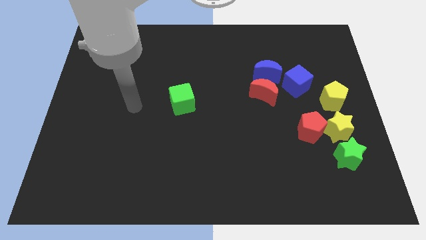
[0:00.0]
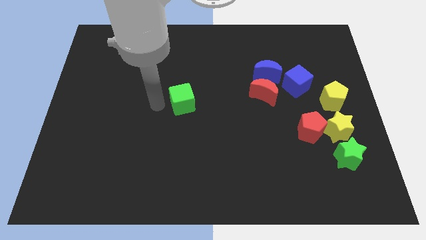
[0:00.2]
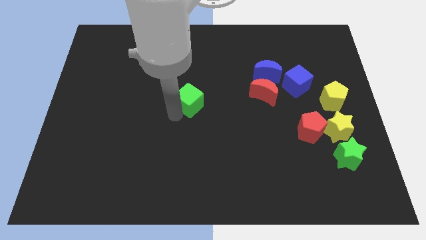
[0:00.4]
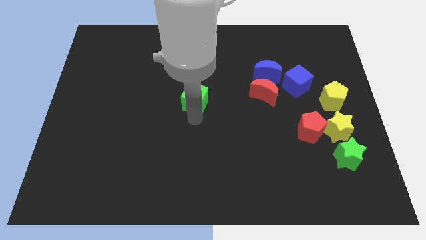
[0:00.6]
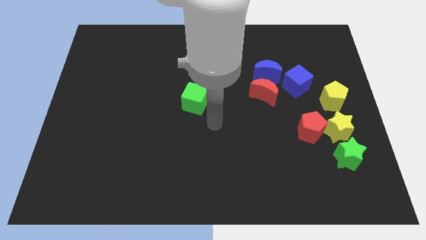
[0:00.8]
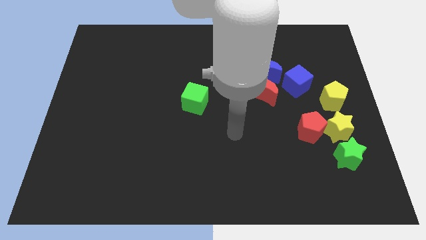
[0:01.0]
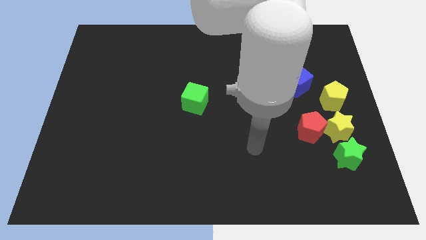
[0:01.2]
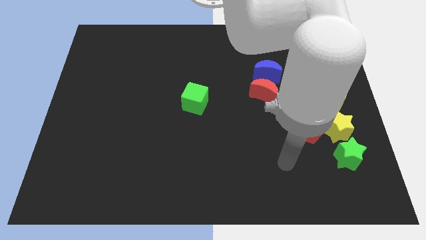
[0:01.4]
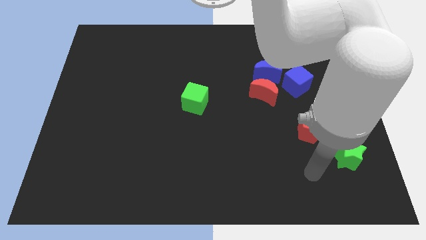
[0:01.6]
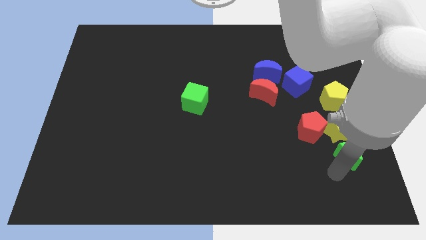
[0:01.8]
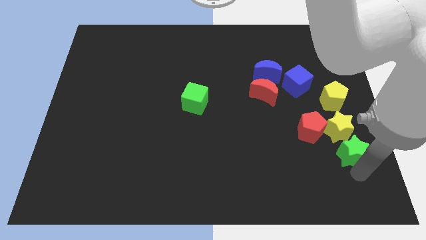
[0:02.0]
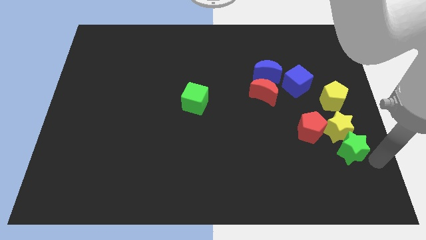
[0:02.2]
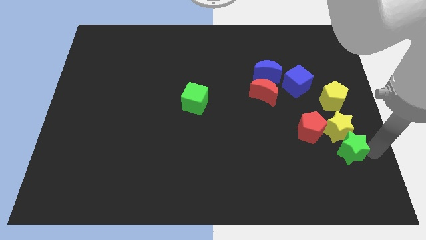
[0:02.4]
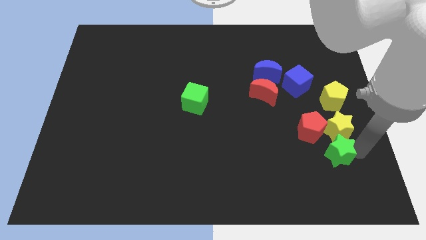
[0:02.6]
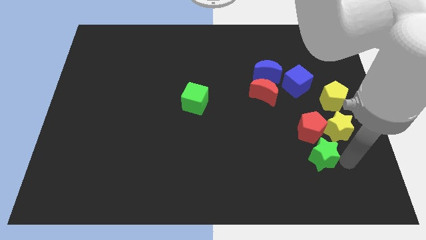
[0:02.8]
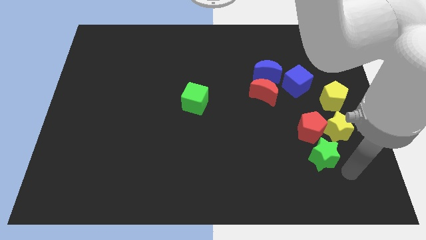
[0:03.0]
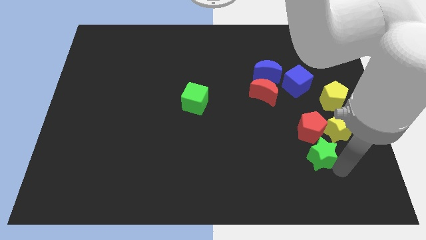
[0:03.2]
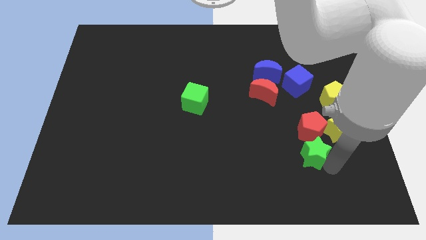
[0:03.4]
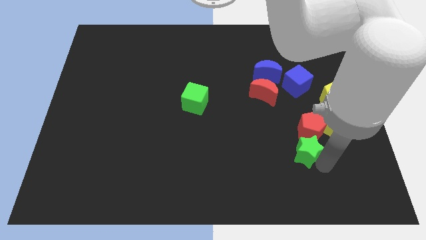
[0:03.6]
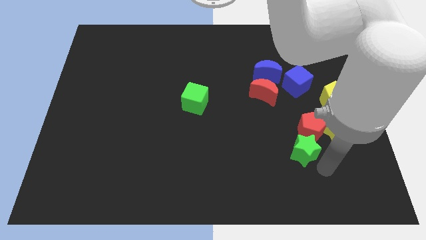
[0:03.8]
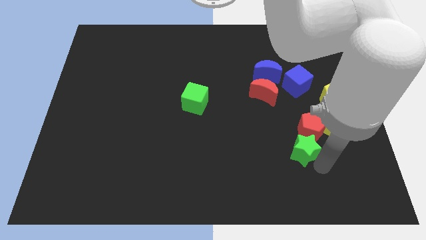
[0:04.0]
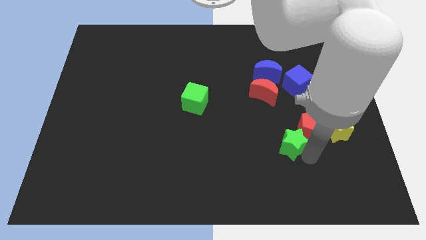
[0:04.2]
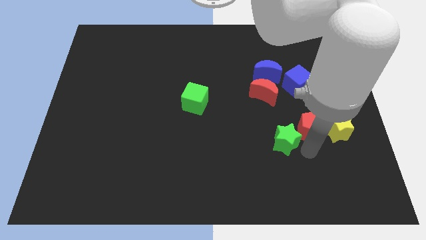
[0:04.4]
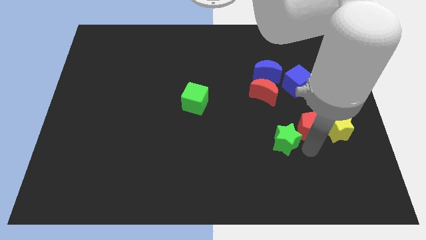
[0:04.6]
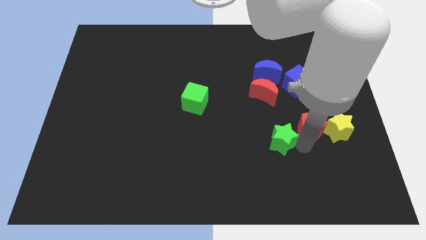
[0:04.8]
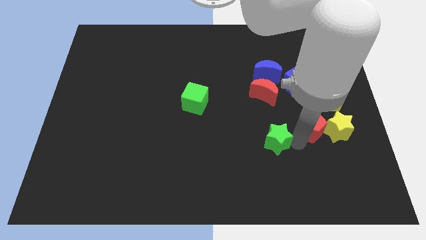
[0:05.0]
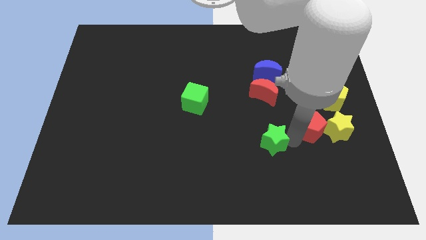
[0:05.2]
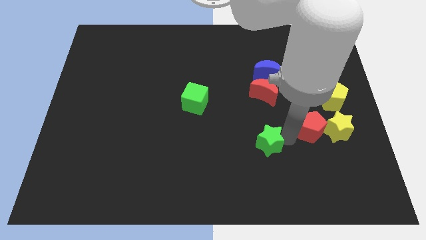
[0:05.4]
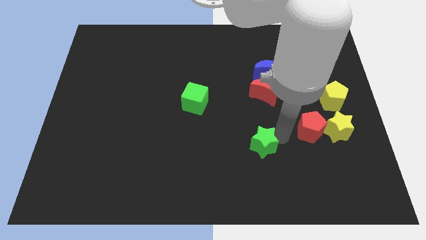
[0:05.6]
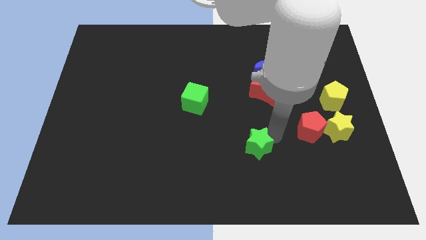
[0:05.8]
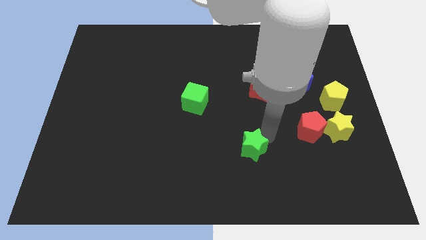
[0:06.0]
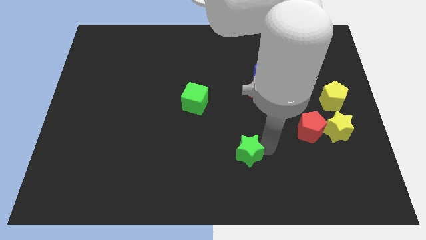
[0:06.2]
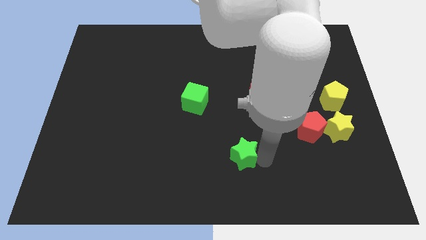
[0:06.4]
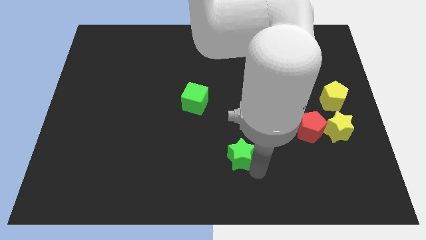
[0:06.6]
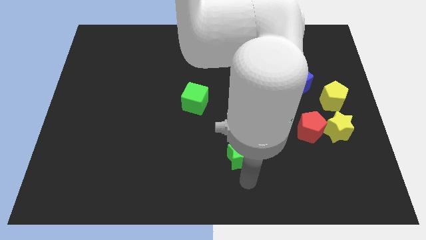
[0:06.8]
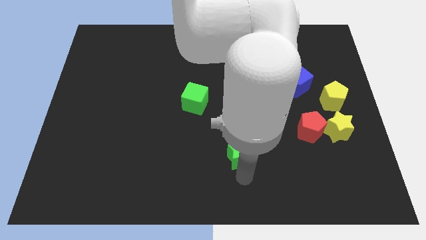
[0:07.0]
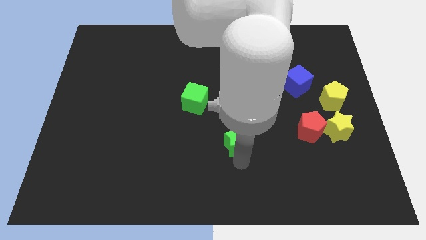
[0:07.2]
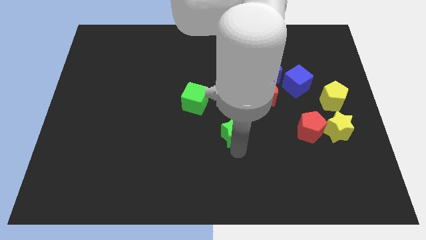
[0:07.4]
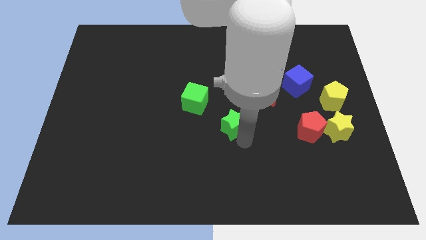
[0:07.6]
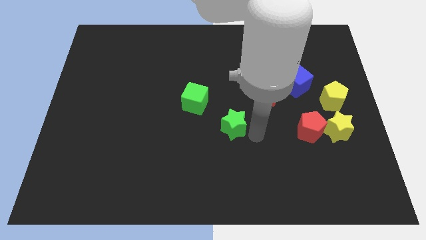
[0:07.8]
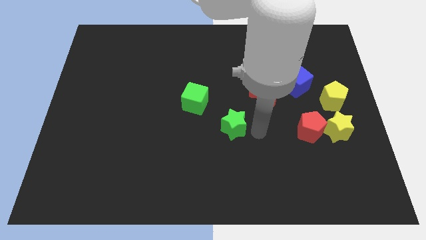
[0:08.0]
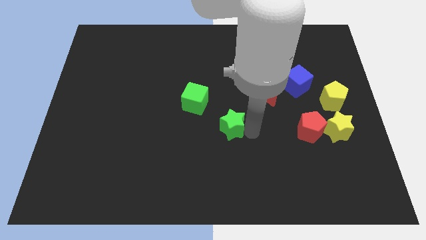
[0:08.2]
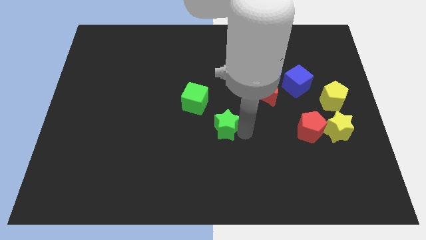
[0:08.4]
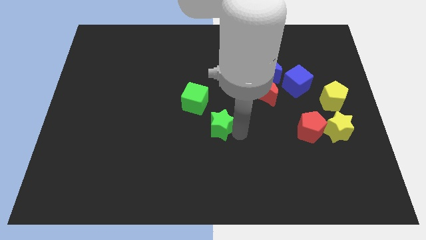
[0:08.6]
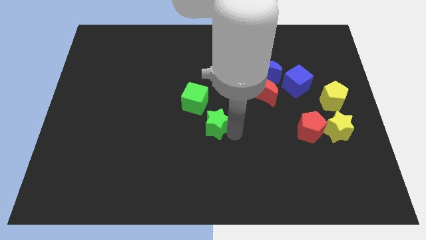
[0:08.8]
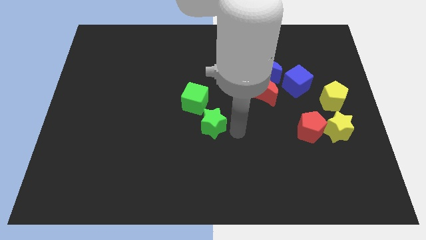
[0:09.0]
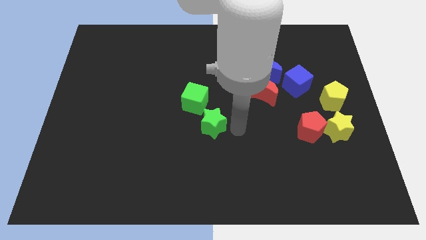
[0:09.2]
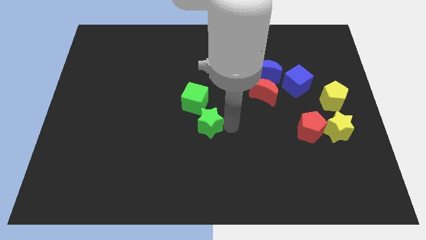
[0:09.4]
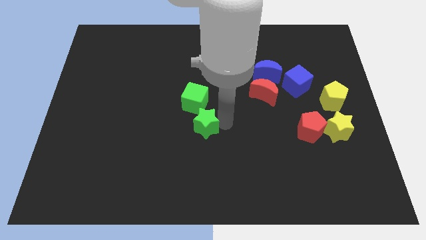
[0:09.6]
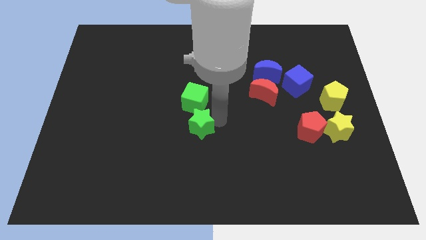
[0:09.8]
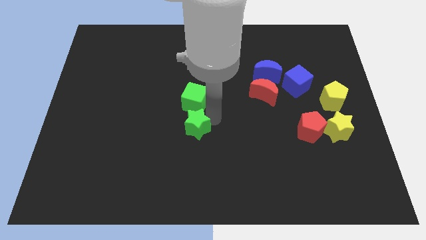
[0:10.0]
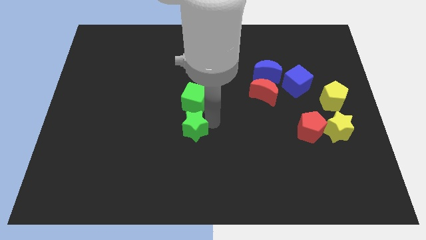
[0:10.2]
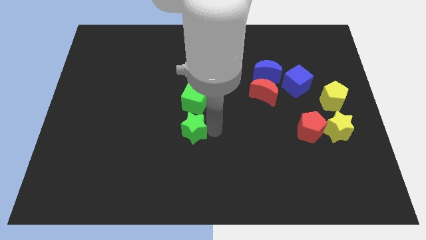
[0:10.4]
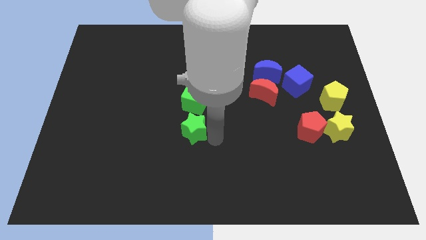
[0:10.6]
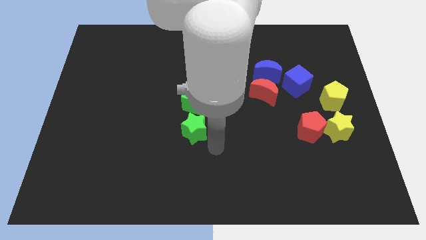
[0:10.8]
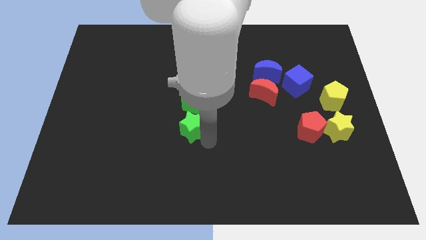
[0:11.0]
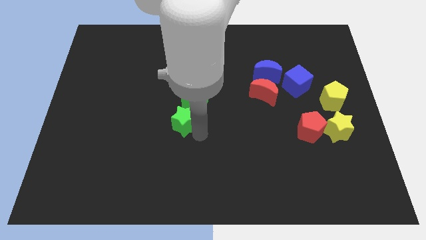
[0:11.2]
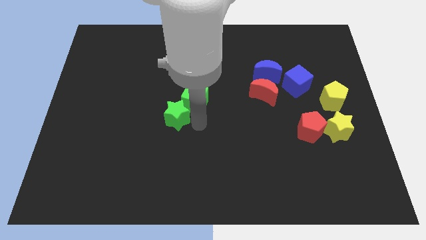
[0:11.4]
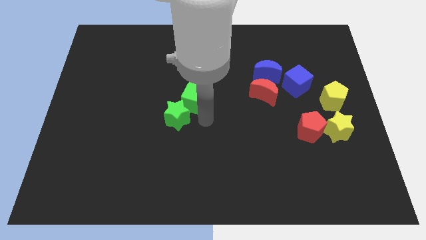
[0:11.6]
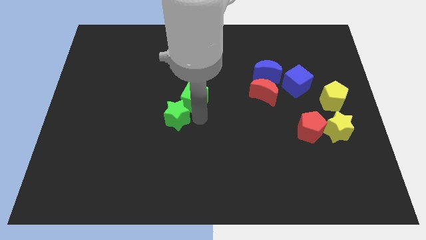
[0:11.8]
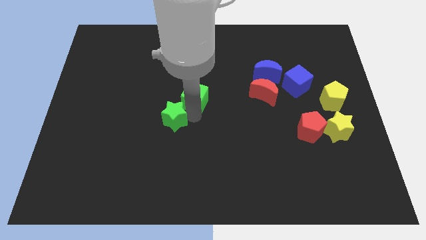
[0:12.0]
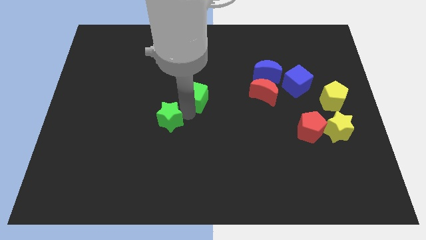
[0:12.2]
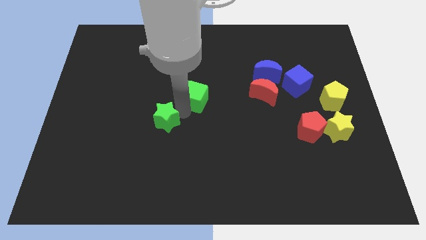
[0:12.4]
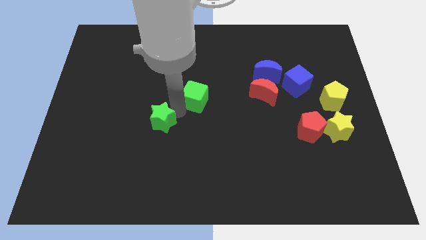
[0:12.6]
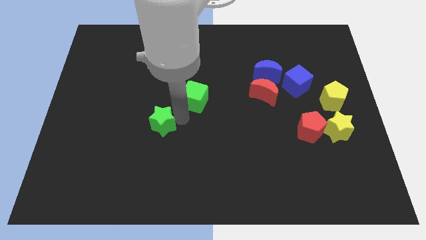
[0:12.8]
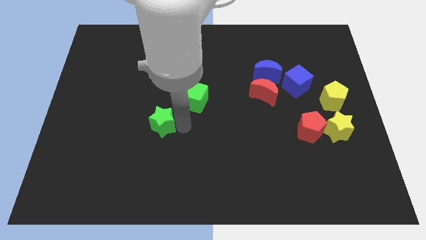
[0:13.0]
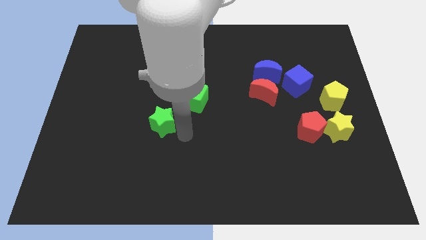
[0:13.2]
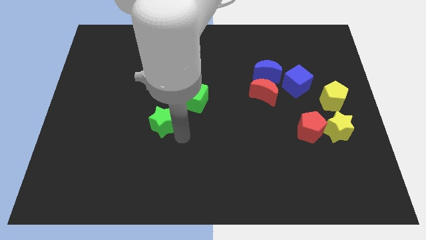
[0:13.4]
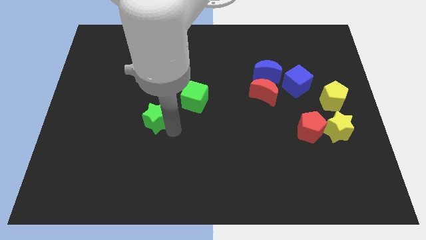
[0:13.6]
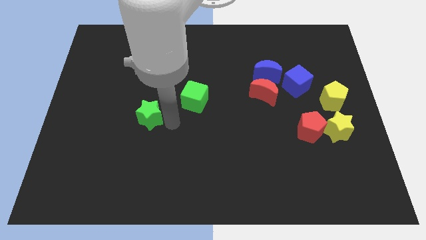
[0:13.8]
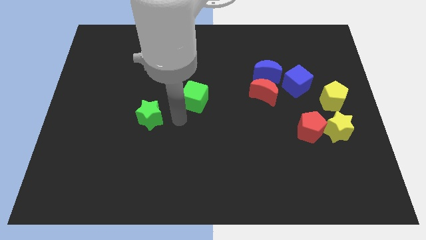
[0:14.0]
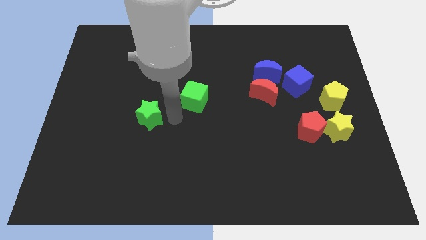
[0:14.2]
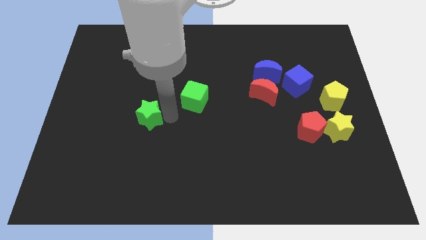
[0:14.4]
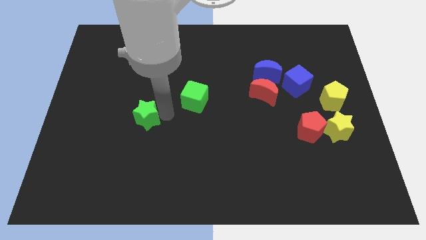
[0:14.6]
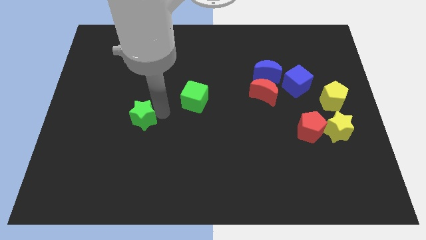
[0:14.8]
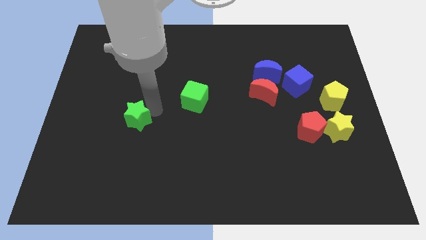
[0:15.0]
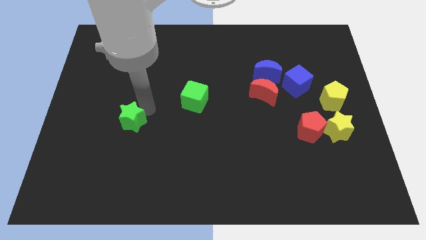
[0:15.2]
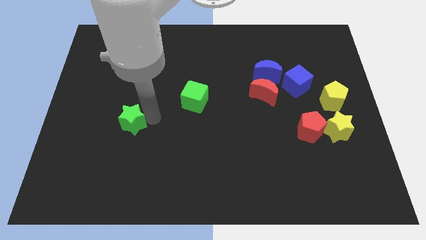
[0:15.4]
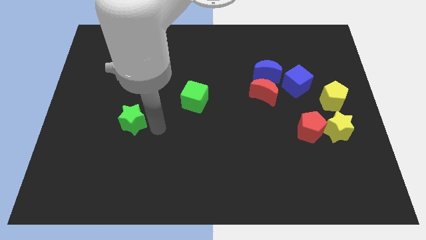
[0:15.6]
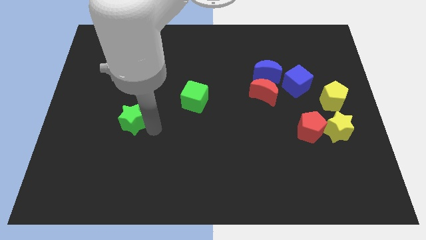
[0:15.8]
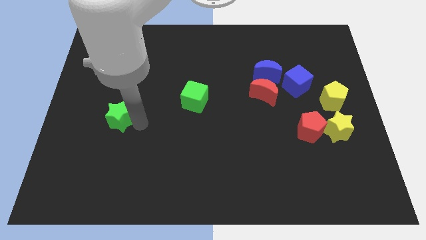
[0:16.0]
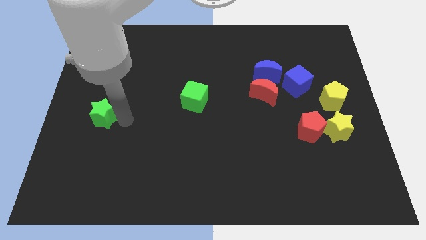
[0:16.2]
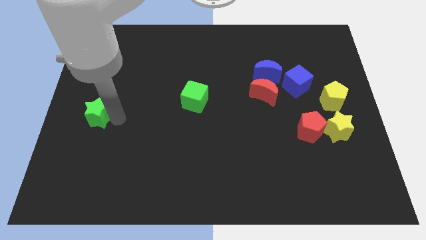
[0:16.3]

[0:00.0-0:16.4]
move the green star to the left side
